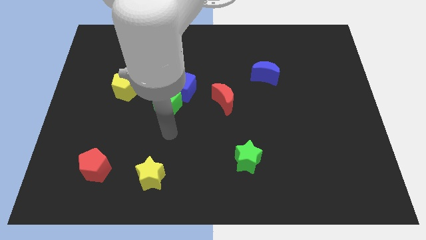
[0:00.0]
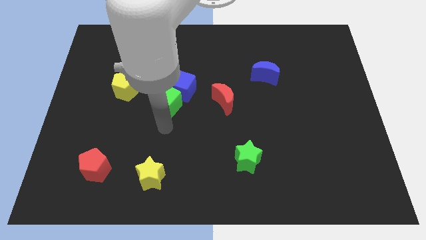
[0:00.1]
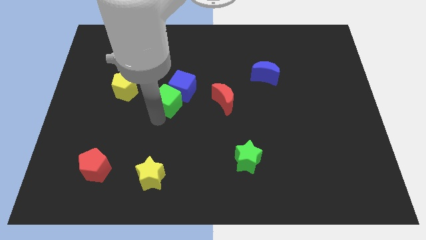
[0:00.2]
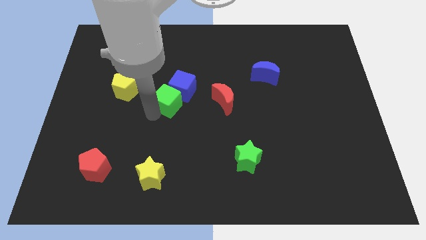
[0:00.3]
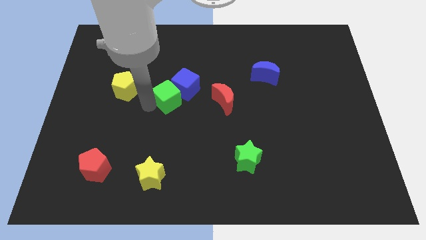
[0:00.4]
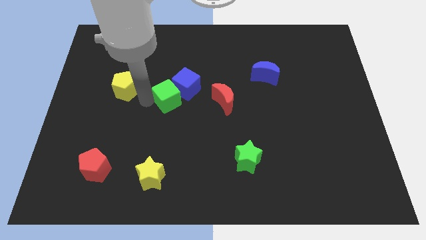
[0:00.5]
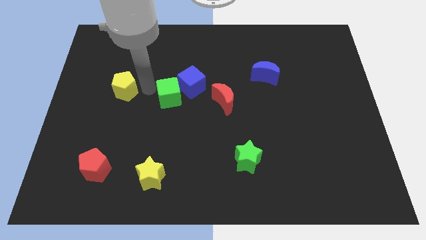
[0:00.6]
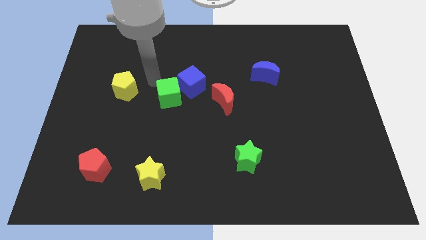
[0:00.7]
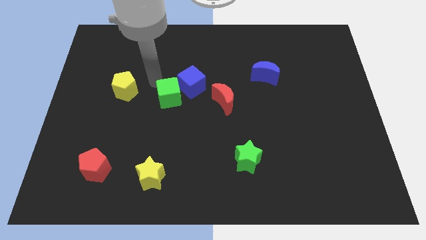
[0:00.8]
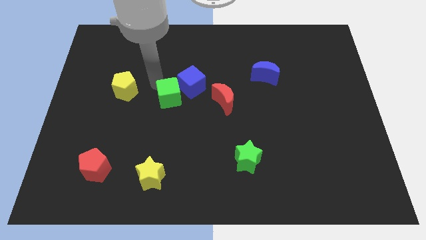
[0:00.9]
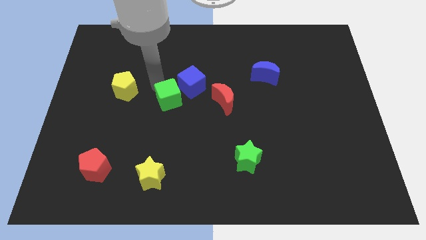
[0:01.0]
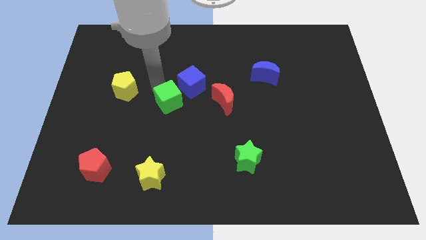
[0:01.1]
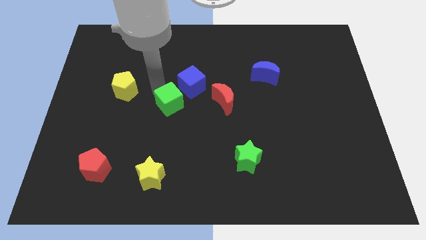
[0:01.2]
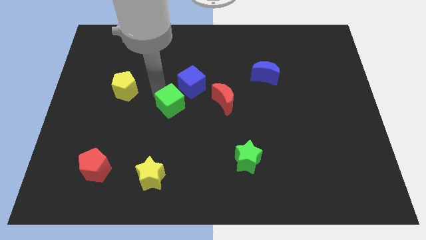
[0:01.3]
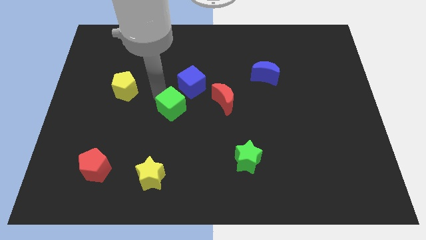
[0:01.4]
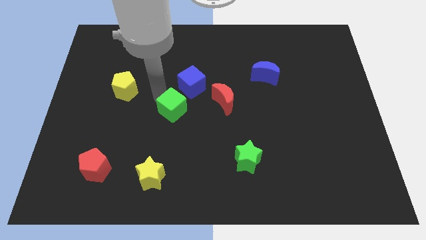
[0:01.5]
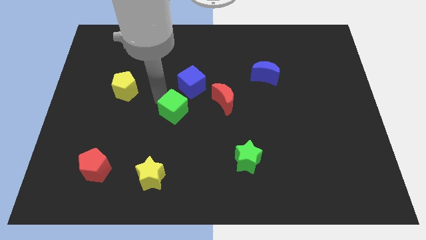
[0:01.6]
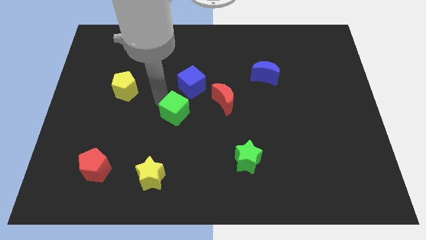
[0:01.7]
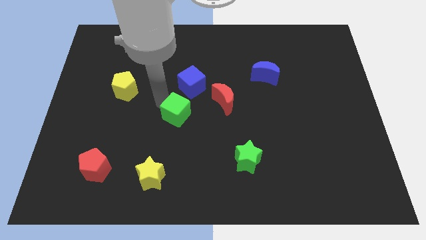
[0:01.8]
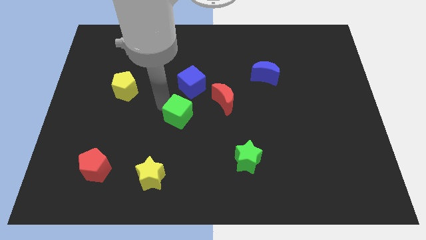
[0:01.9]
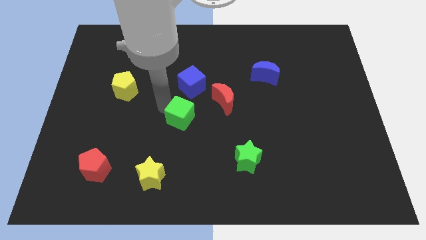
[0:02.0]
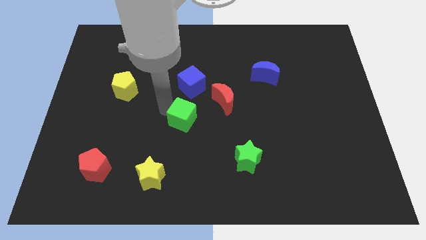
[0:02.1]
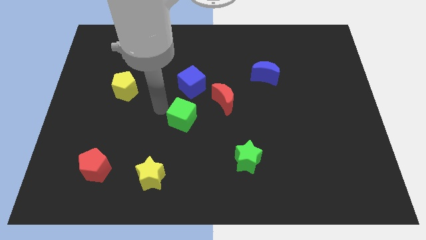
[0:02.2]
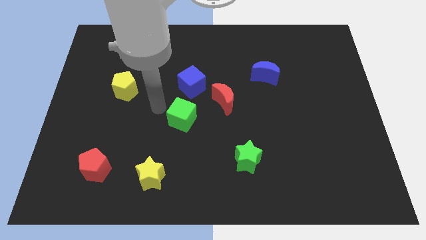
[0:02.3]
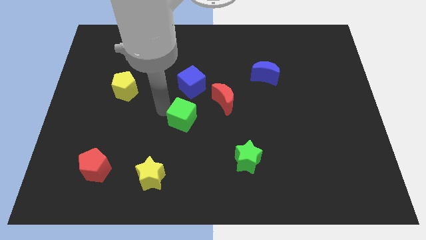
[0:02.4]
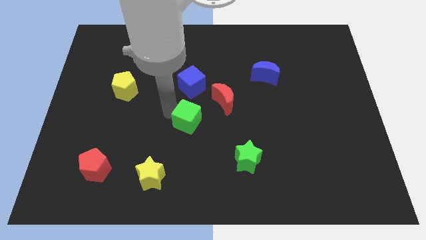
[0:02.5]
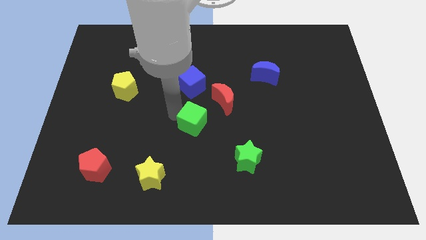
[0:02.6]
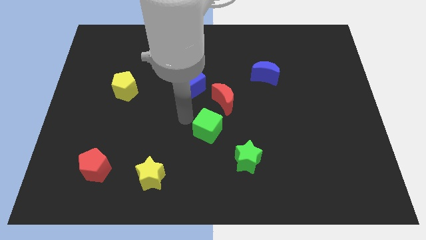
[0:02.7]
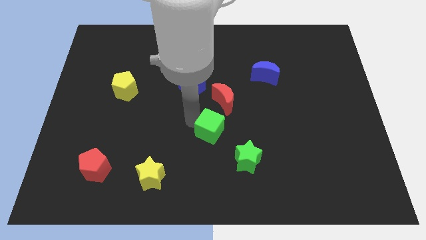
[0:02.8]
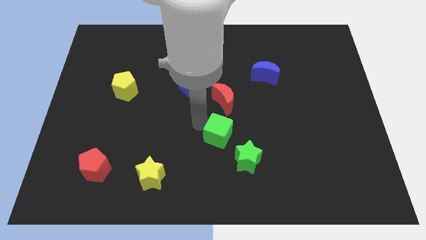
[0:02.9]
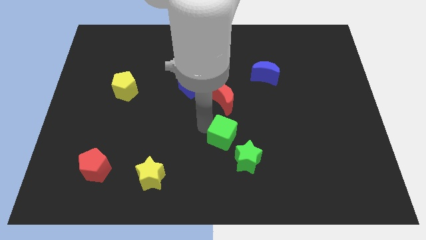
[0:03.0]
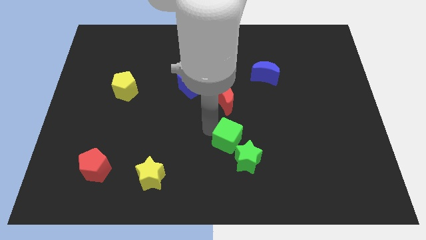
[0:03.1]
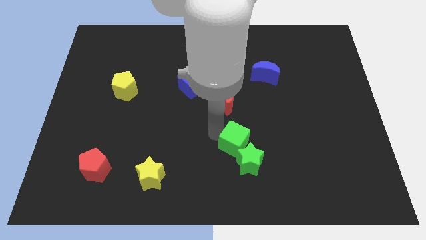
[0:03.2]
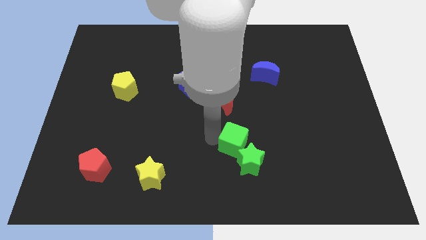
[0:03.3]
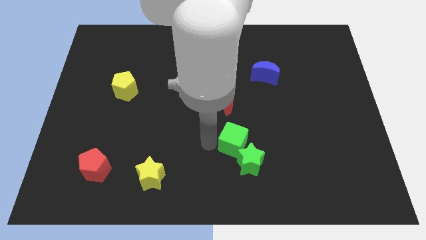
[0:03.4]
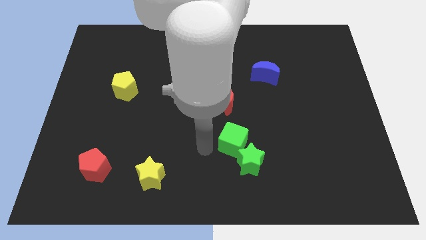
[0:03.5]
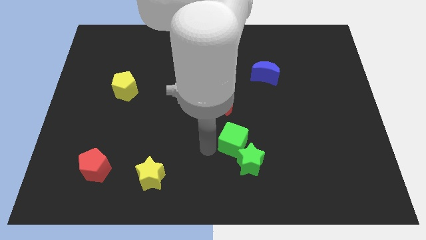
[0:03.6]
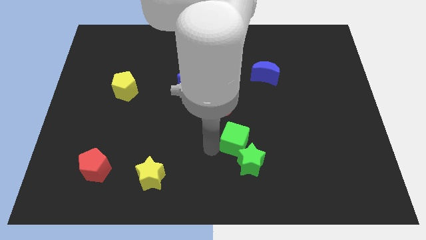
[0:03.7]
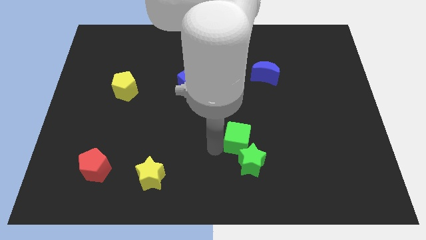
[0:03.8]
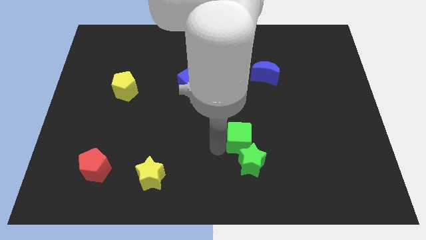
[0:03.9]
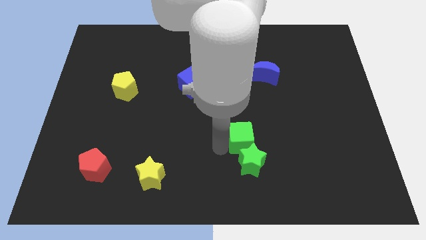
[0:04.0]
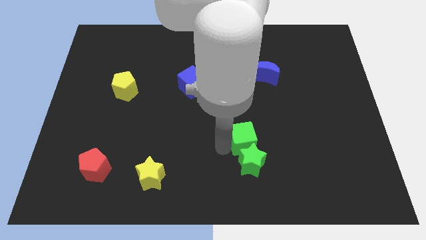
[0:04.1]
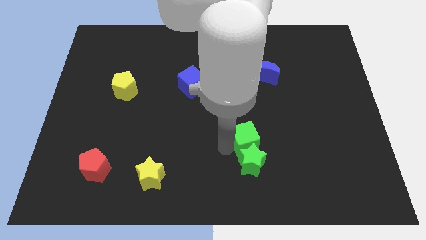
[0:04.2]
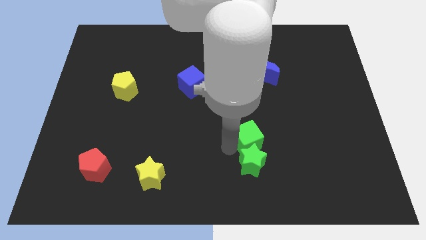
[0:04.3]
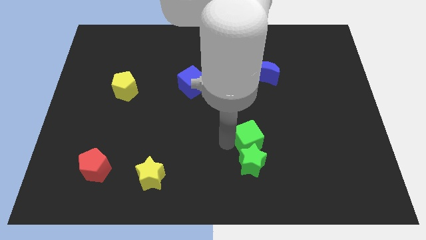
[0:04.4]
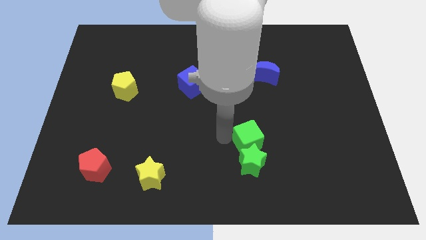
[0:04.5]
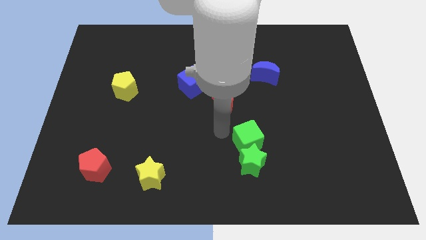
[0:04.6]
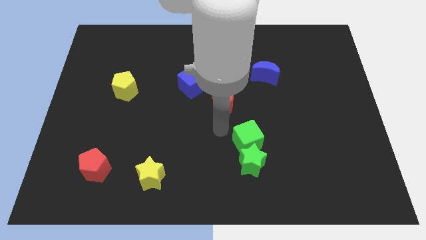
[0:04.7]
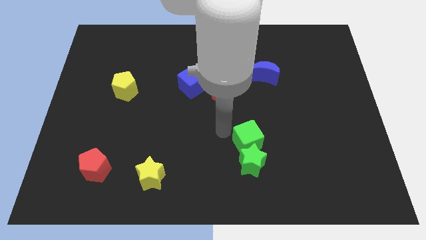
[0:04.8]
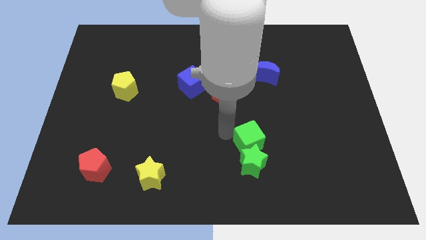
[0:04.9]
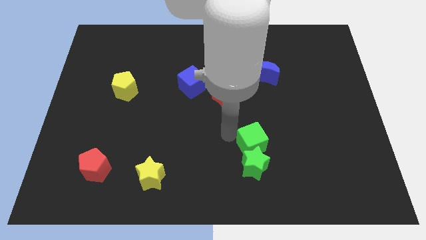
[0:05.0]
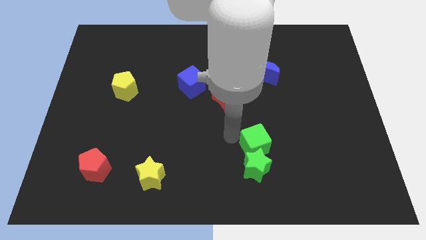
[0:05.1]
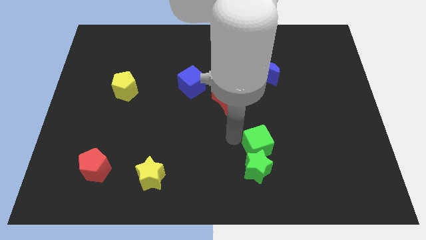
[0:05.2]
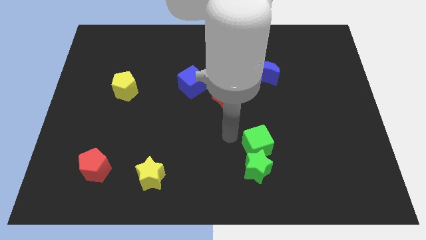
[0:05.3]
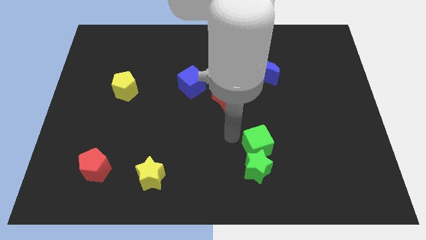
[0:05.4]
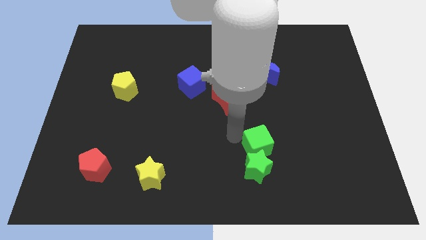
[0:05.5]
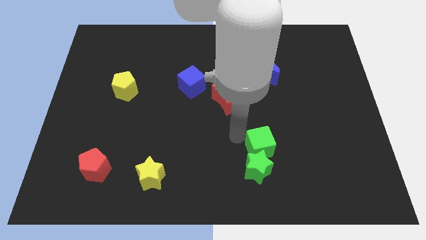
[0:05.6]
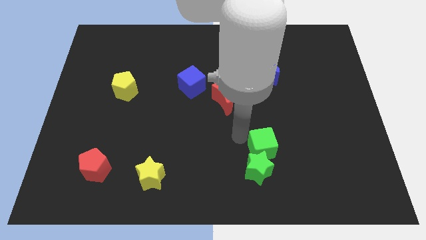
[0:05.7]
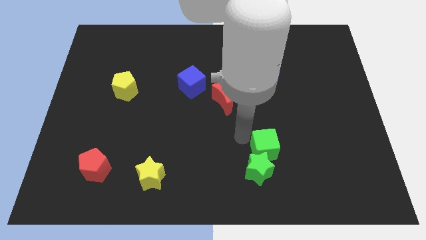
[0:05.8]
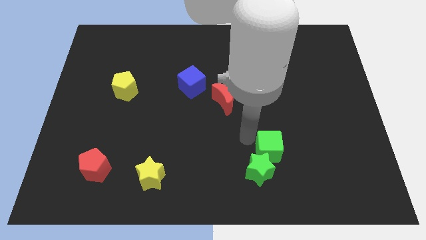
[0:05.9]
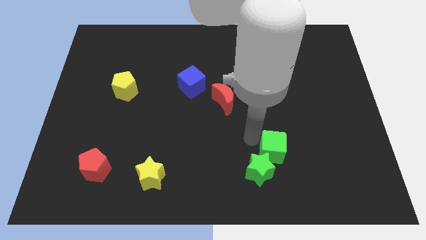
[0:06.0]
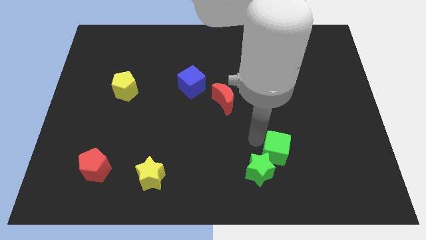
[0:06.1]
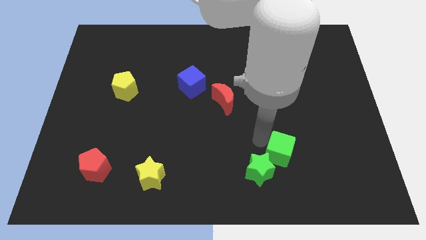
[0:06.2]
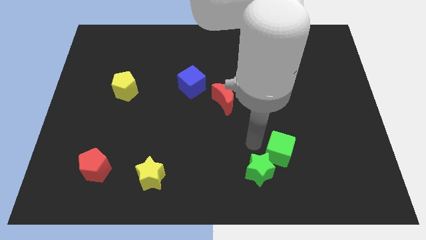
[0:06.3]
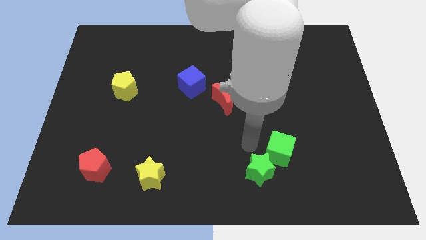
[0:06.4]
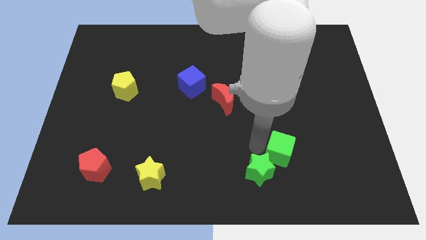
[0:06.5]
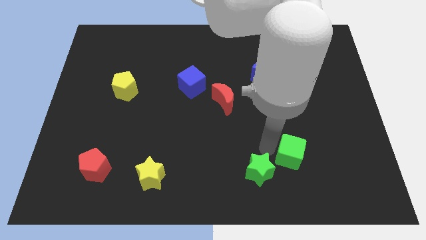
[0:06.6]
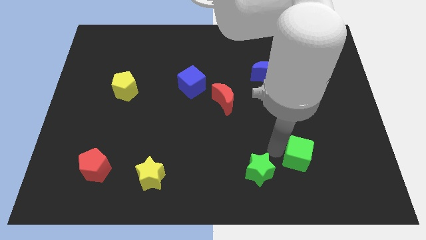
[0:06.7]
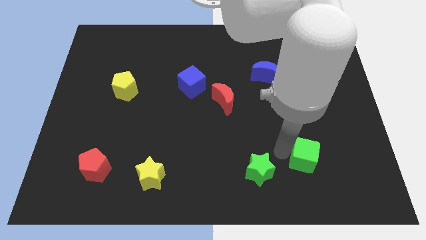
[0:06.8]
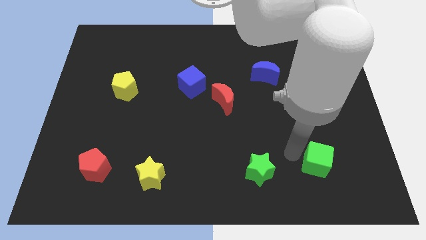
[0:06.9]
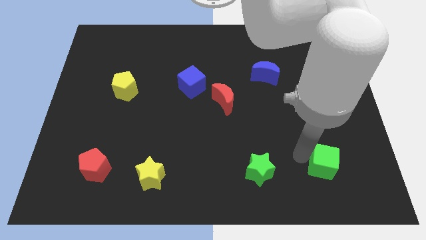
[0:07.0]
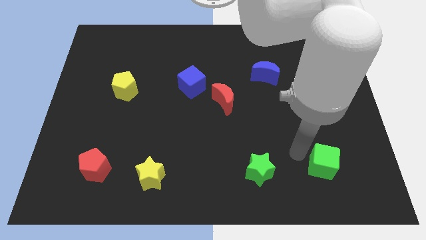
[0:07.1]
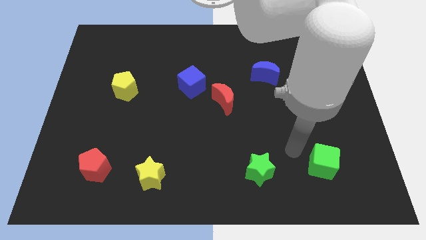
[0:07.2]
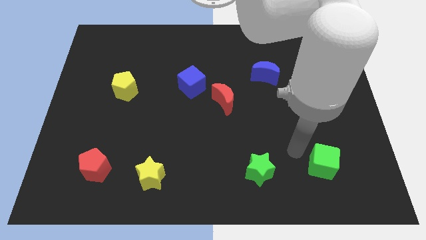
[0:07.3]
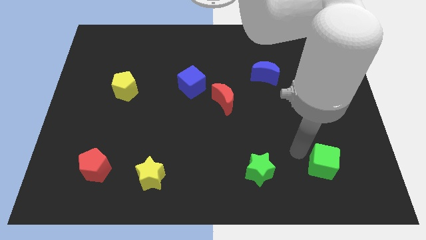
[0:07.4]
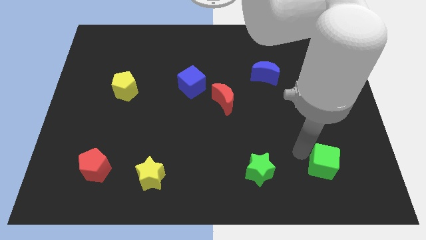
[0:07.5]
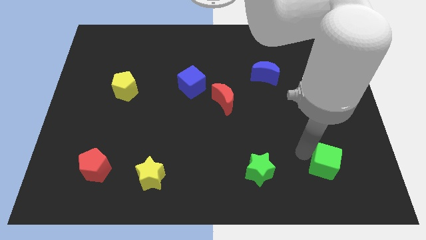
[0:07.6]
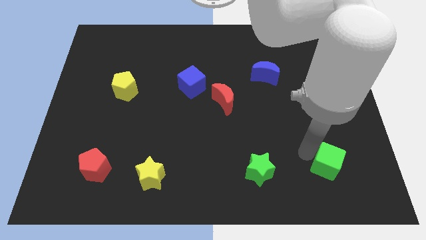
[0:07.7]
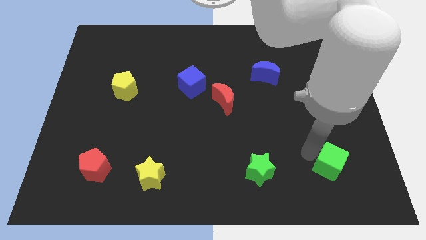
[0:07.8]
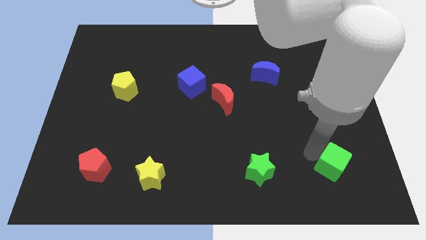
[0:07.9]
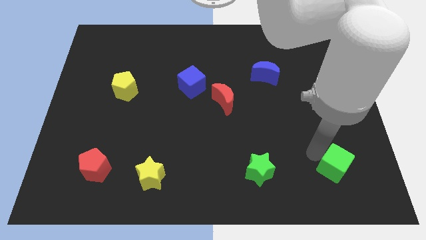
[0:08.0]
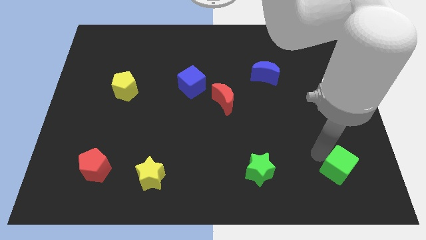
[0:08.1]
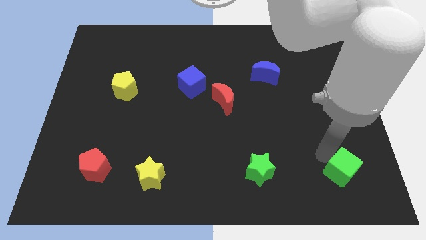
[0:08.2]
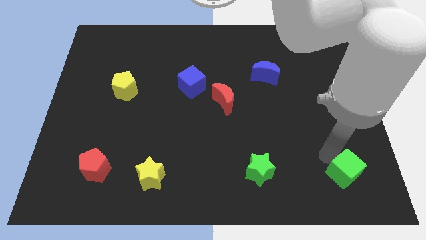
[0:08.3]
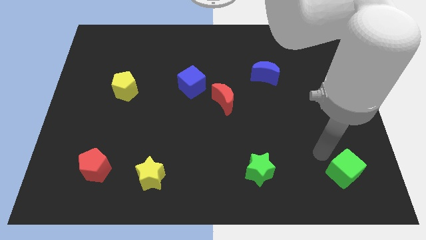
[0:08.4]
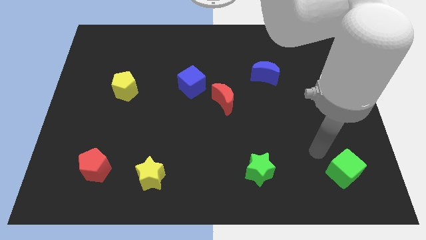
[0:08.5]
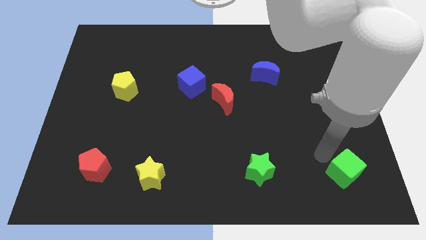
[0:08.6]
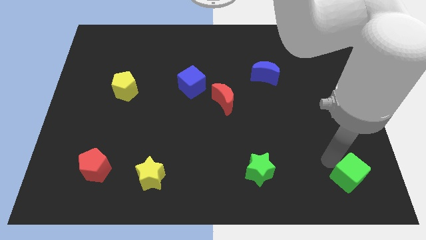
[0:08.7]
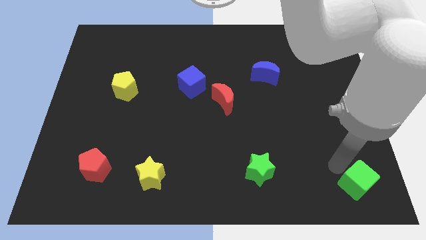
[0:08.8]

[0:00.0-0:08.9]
slide the green cube to the lower right corner
